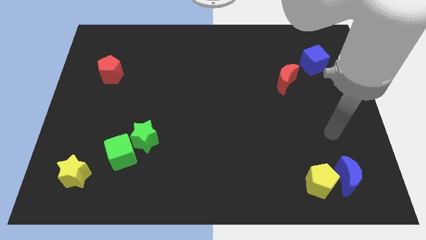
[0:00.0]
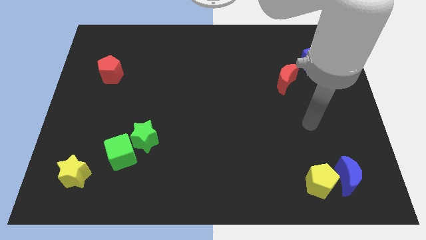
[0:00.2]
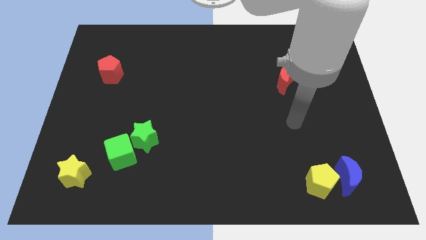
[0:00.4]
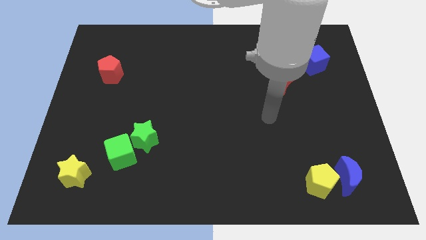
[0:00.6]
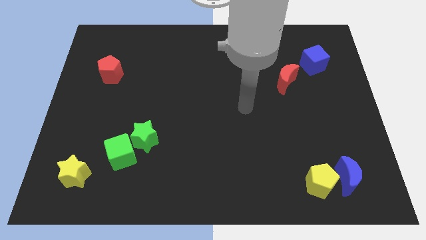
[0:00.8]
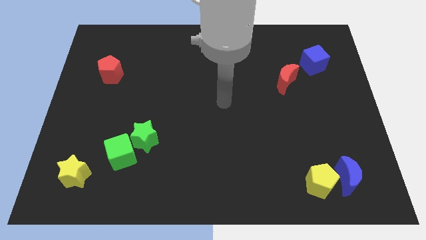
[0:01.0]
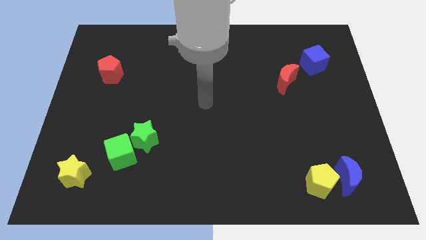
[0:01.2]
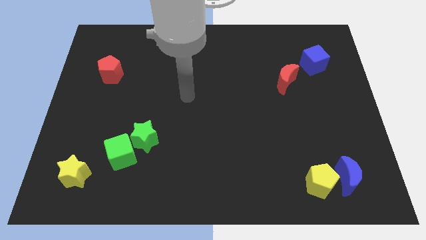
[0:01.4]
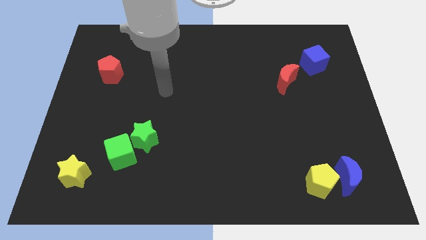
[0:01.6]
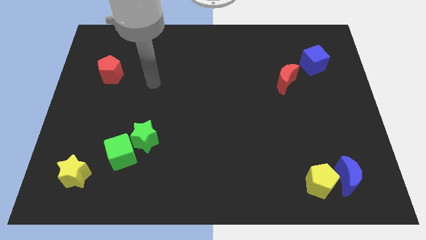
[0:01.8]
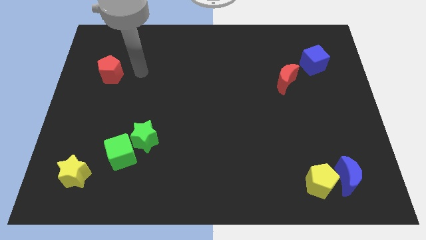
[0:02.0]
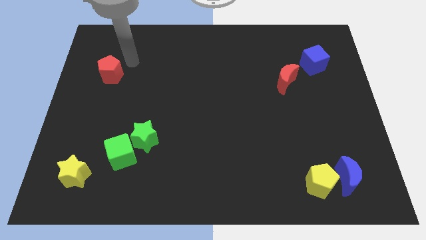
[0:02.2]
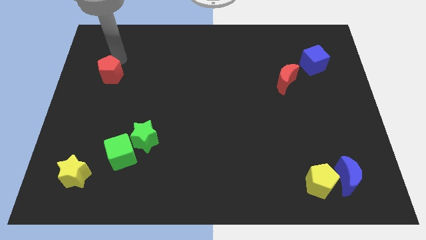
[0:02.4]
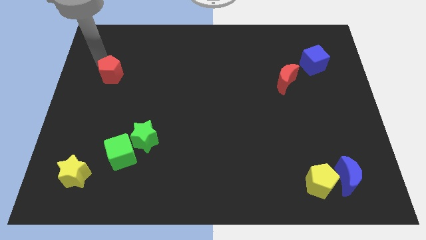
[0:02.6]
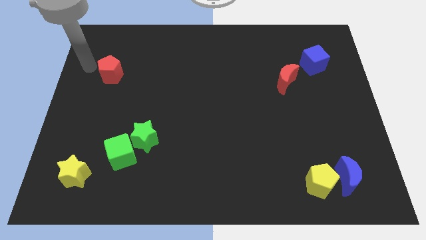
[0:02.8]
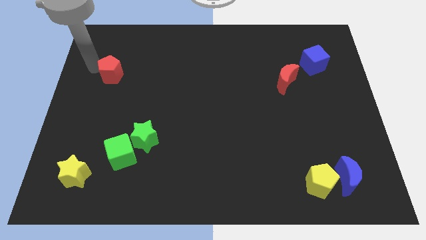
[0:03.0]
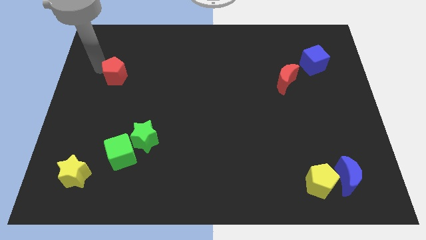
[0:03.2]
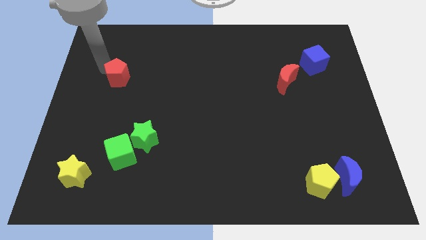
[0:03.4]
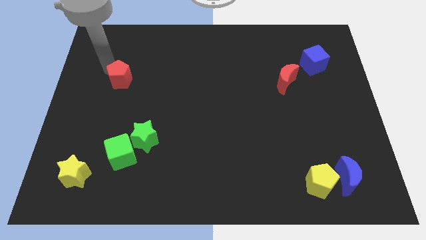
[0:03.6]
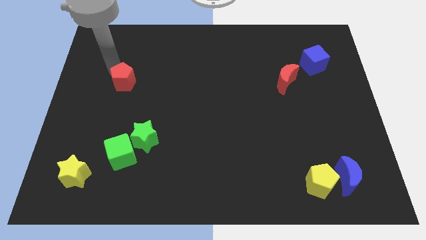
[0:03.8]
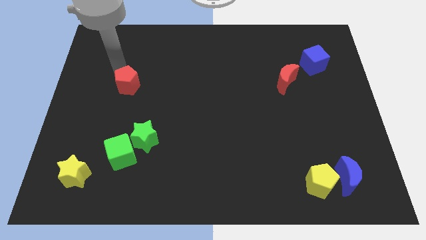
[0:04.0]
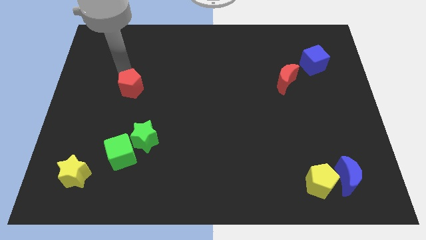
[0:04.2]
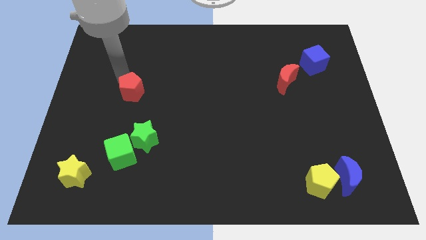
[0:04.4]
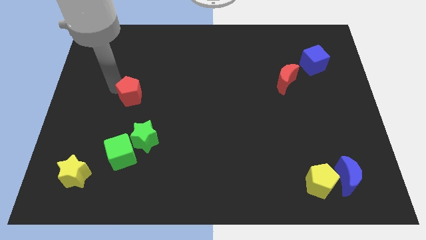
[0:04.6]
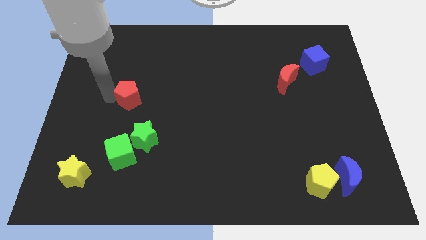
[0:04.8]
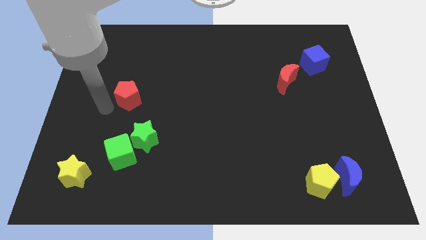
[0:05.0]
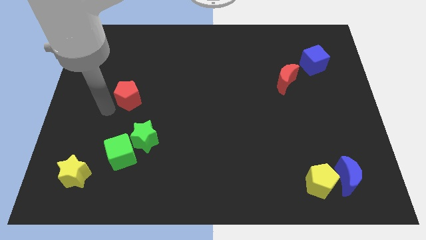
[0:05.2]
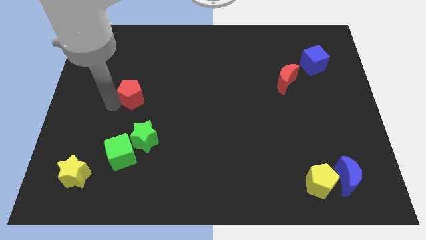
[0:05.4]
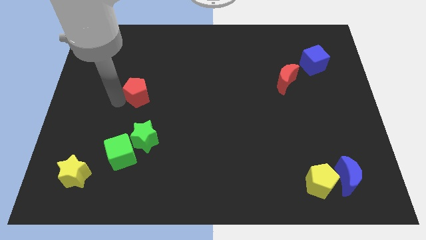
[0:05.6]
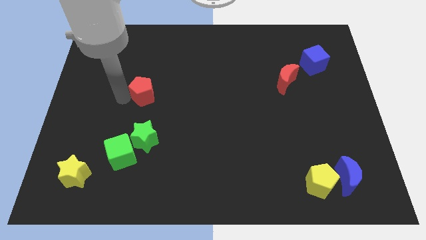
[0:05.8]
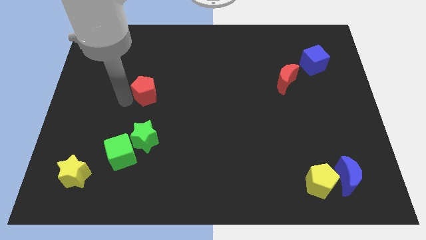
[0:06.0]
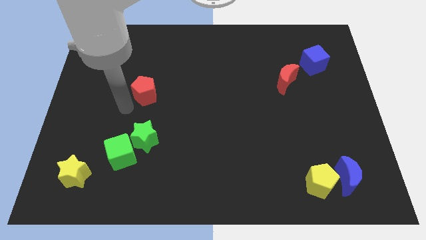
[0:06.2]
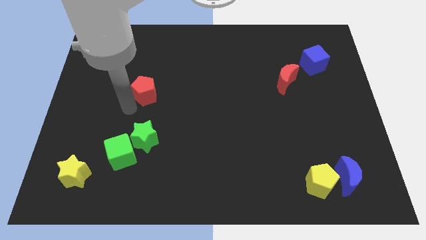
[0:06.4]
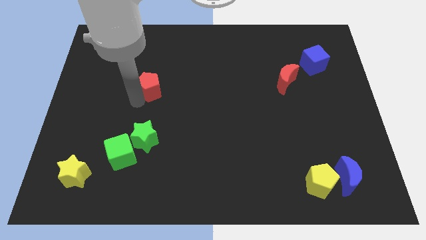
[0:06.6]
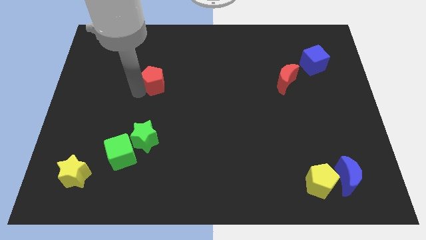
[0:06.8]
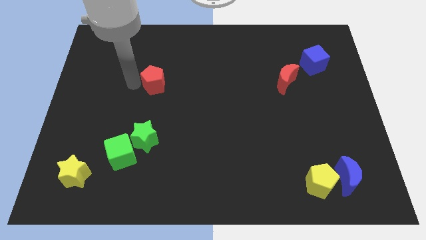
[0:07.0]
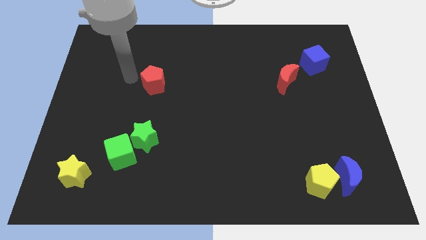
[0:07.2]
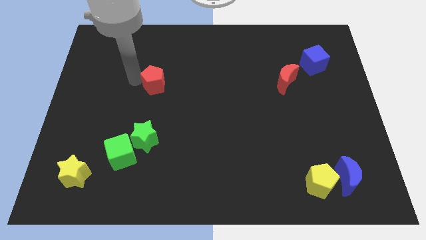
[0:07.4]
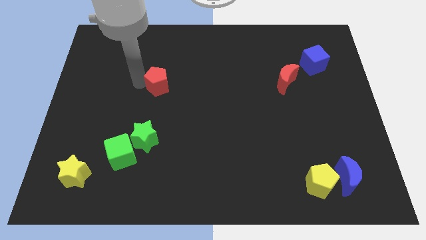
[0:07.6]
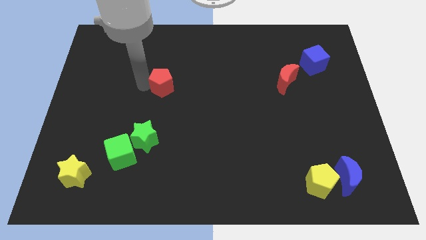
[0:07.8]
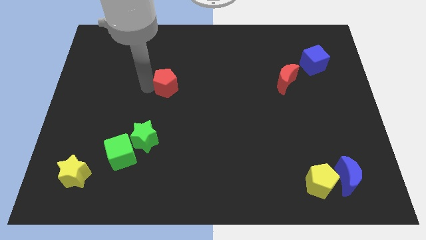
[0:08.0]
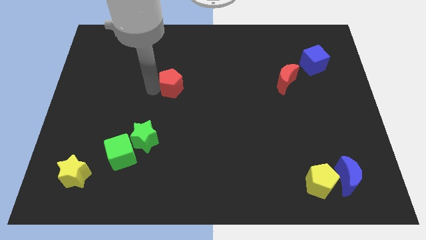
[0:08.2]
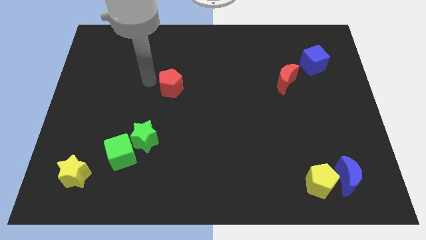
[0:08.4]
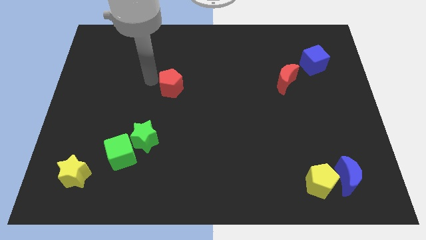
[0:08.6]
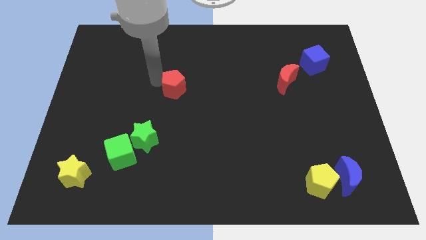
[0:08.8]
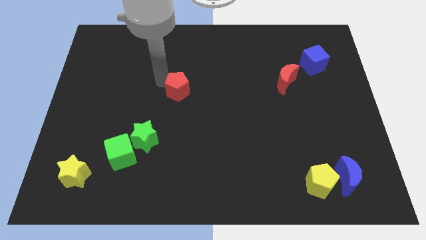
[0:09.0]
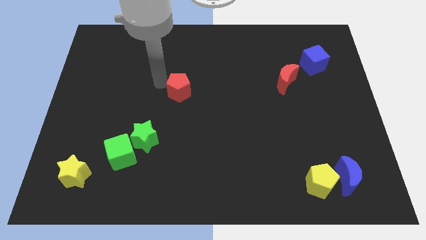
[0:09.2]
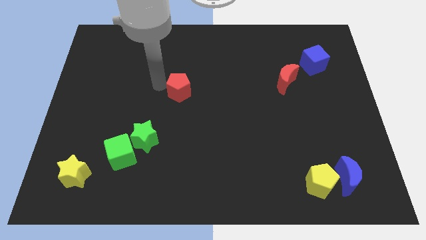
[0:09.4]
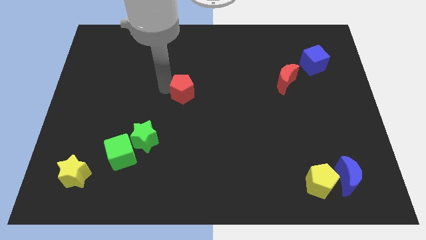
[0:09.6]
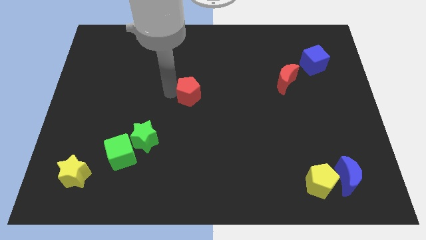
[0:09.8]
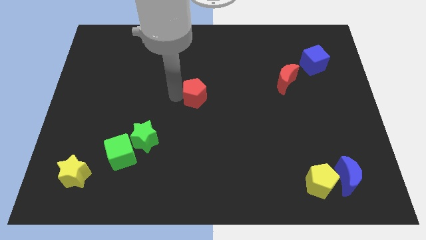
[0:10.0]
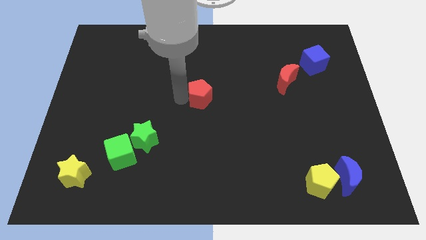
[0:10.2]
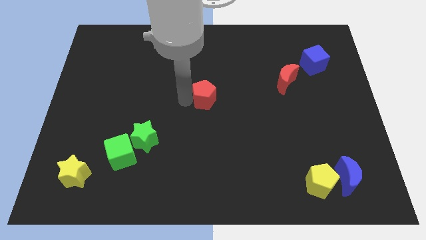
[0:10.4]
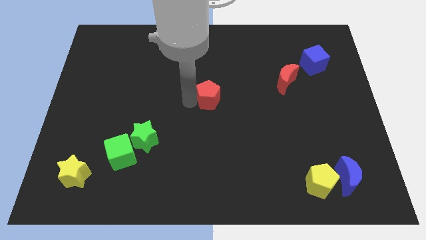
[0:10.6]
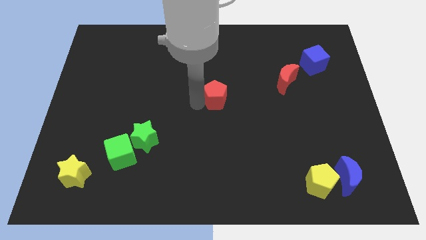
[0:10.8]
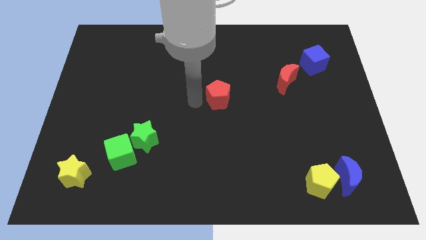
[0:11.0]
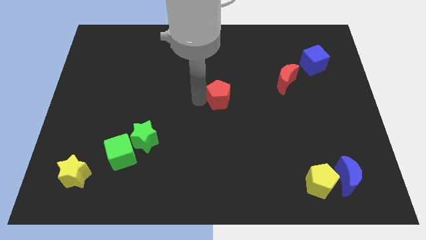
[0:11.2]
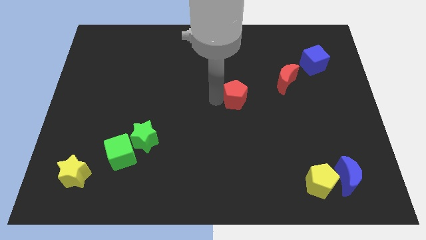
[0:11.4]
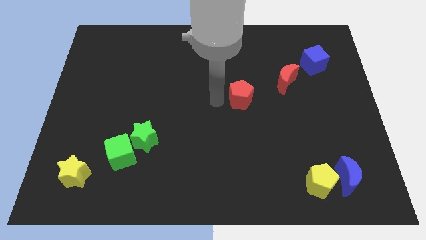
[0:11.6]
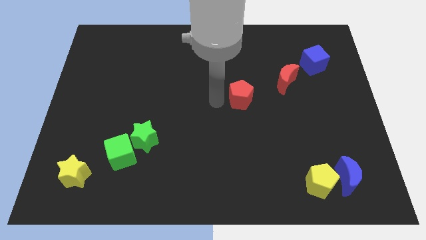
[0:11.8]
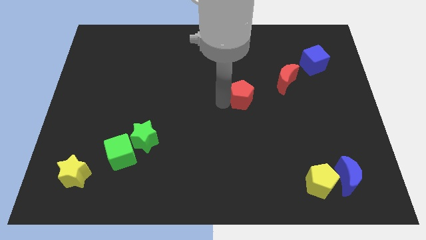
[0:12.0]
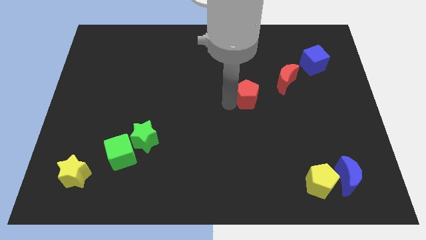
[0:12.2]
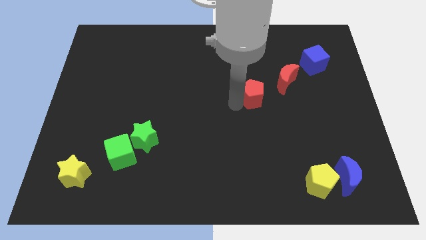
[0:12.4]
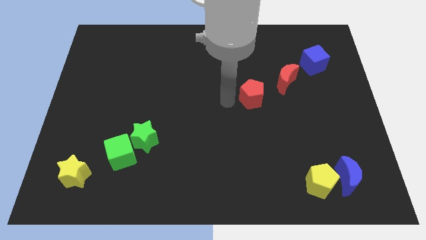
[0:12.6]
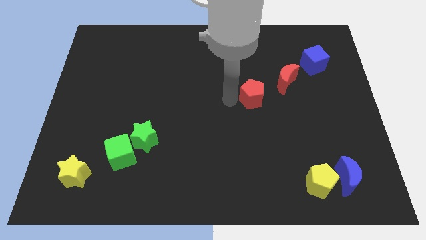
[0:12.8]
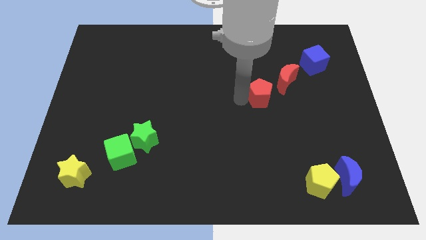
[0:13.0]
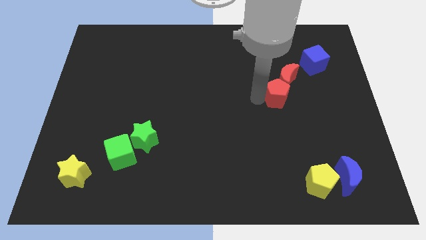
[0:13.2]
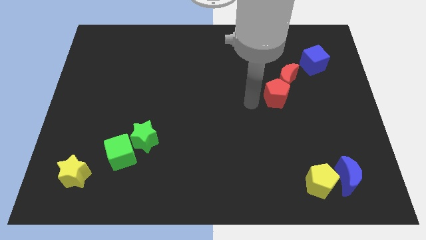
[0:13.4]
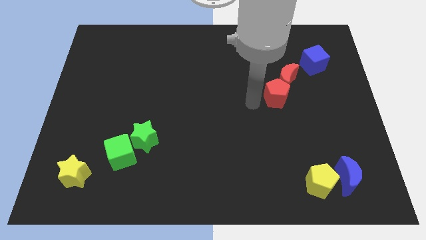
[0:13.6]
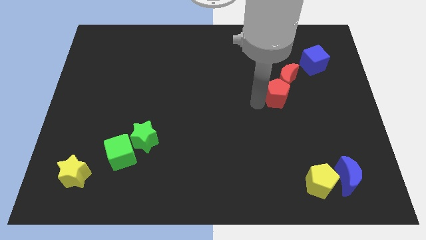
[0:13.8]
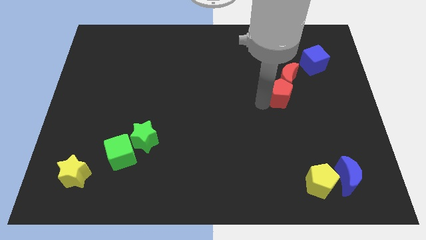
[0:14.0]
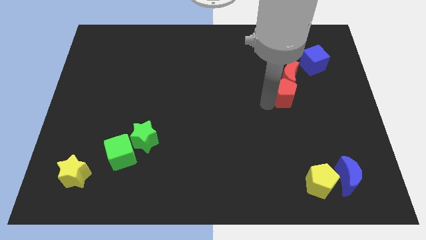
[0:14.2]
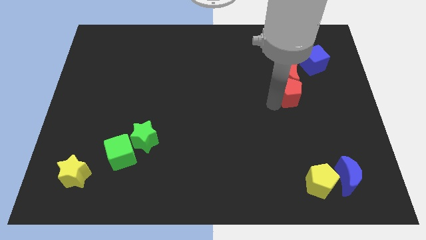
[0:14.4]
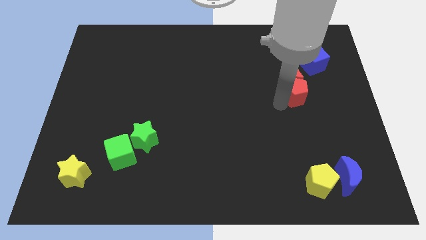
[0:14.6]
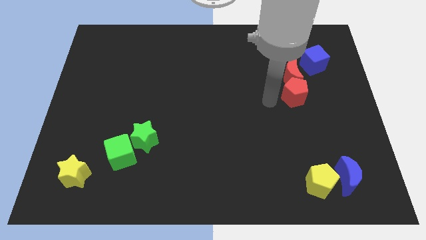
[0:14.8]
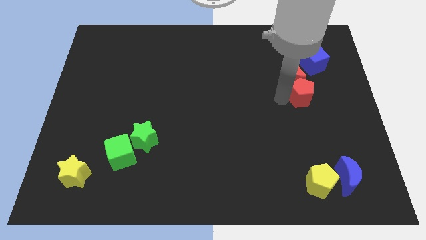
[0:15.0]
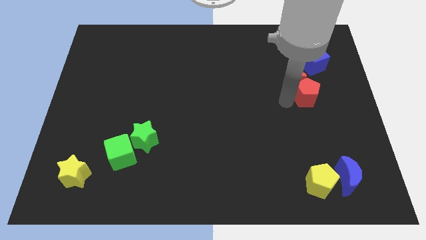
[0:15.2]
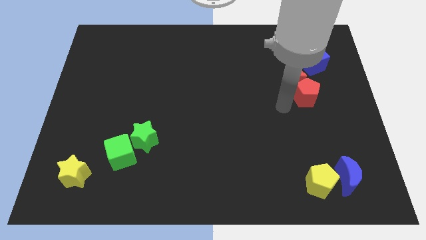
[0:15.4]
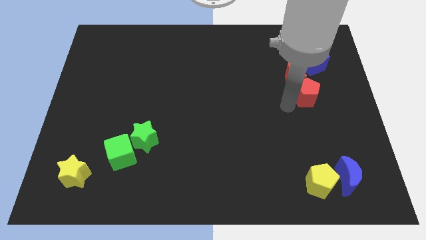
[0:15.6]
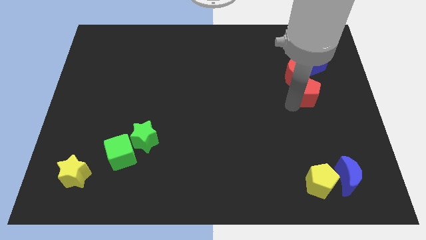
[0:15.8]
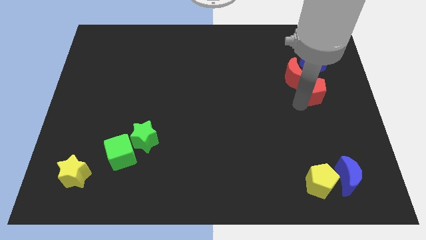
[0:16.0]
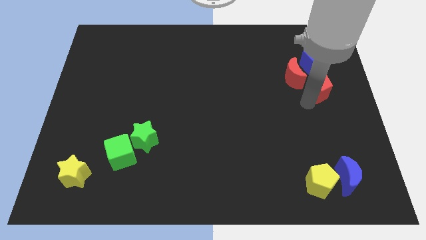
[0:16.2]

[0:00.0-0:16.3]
move the red pentagon to the right side of the red moon
